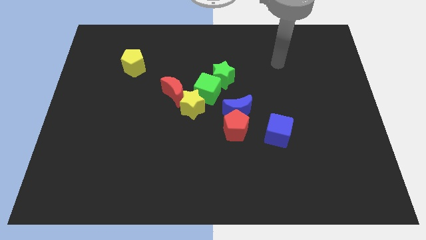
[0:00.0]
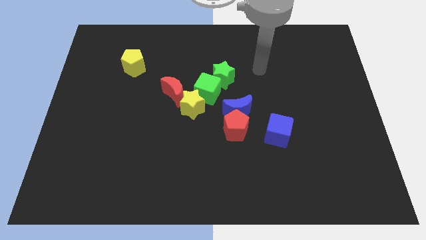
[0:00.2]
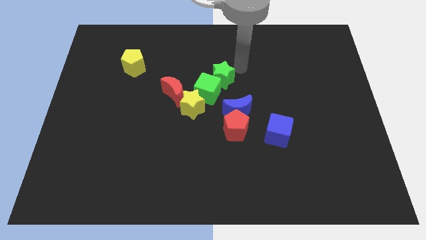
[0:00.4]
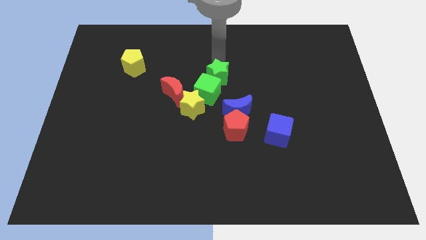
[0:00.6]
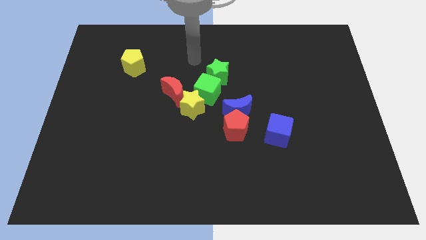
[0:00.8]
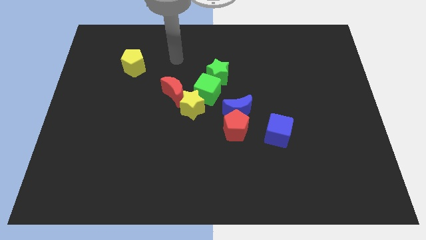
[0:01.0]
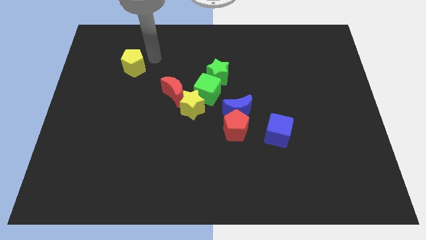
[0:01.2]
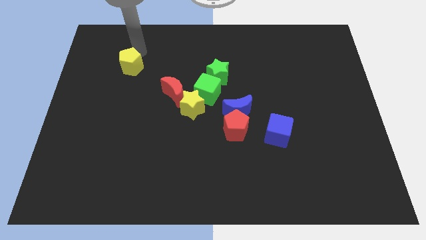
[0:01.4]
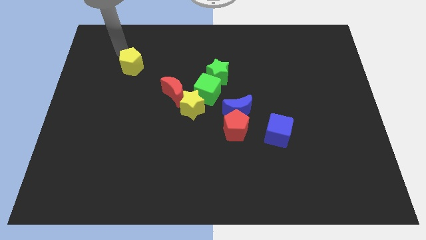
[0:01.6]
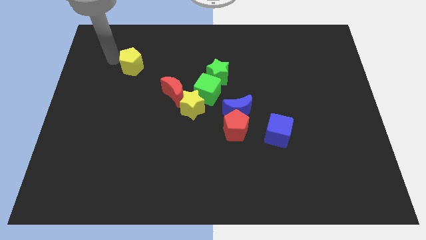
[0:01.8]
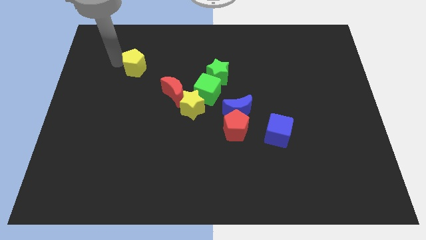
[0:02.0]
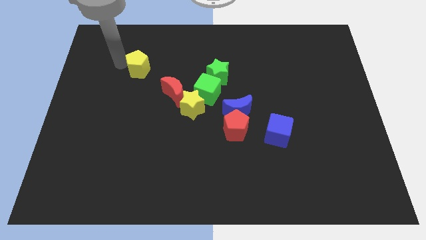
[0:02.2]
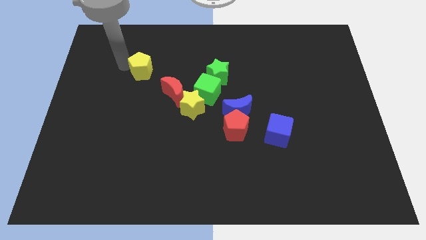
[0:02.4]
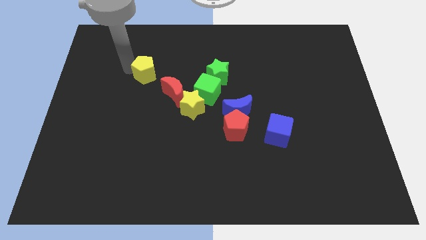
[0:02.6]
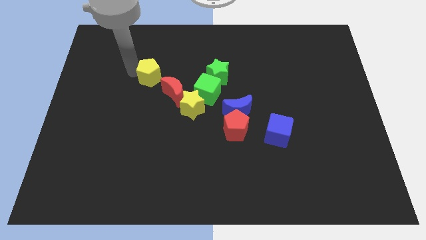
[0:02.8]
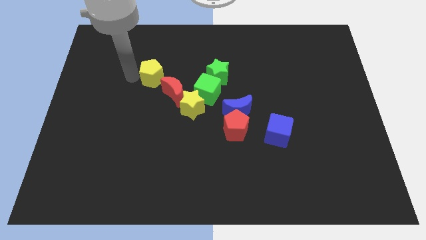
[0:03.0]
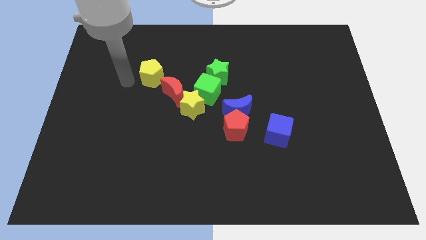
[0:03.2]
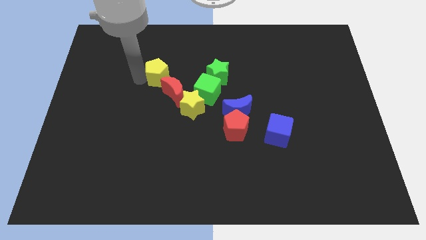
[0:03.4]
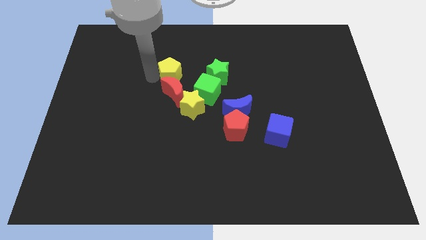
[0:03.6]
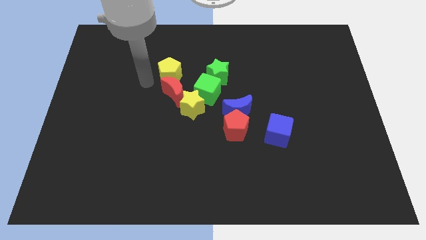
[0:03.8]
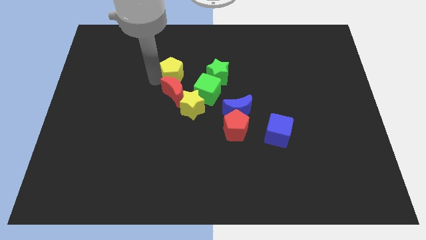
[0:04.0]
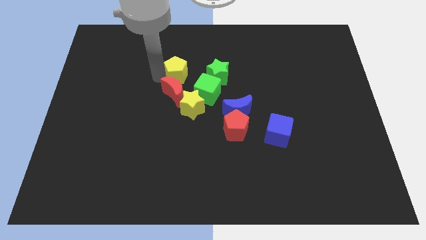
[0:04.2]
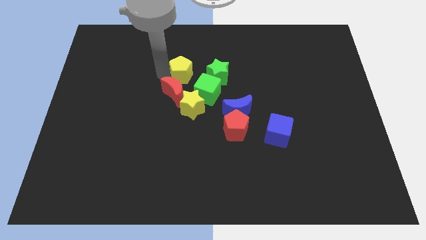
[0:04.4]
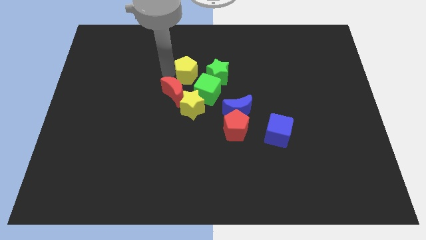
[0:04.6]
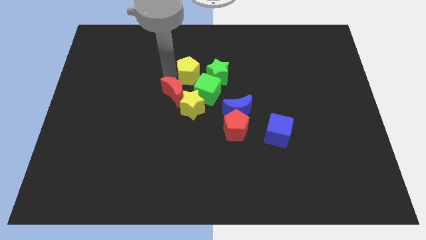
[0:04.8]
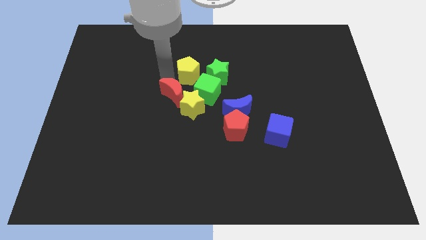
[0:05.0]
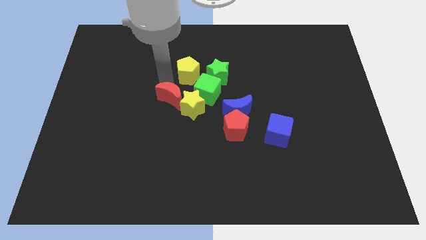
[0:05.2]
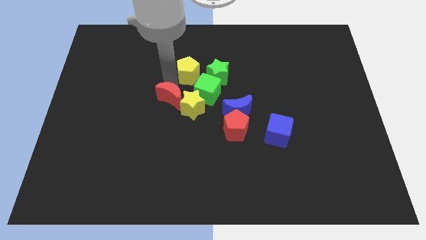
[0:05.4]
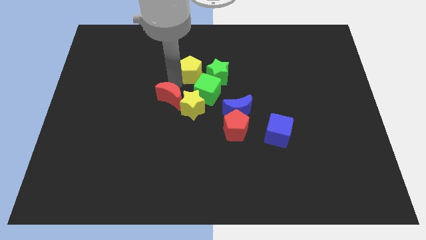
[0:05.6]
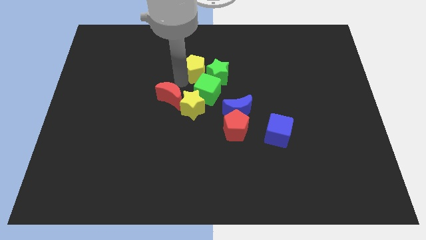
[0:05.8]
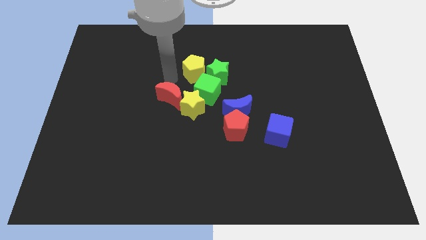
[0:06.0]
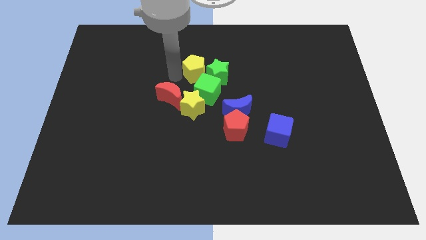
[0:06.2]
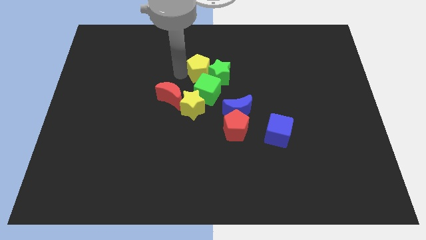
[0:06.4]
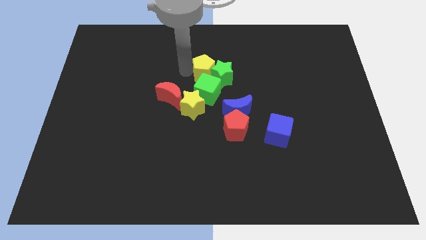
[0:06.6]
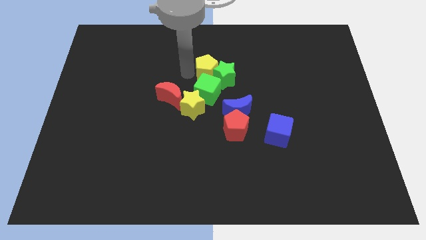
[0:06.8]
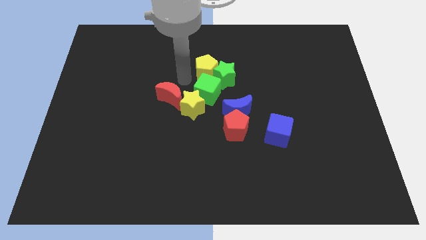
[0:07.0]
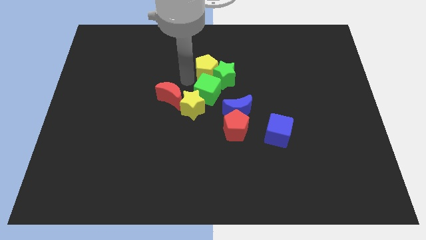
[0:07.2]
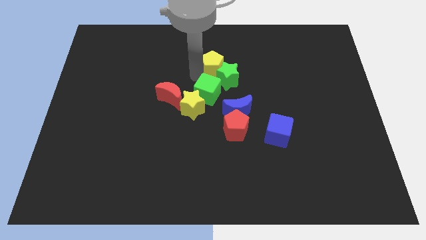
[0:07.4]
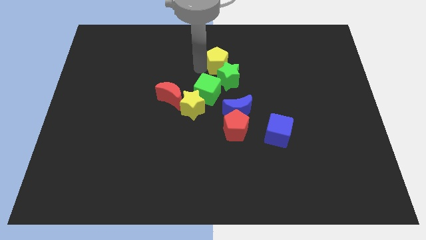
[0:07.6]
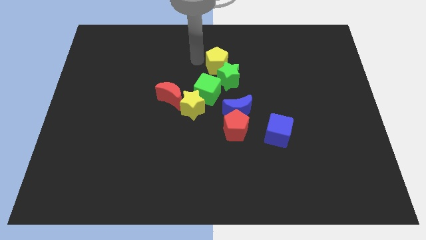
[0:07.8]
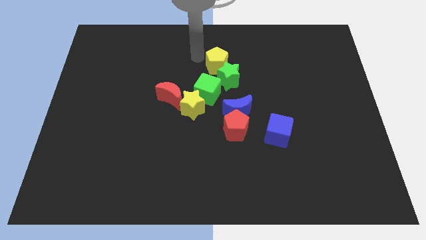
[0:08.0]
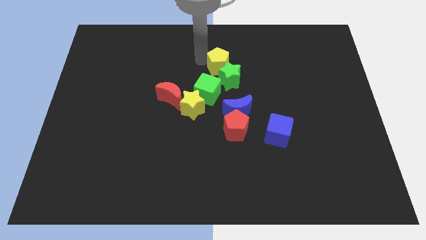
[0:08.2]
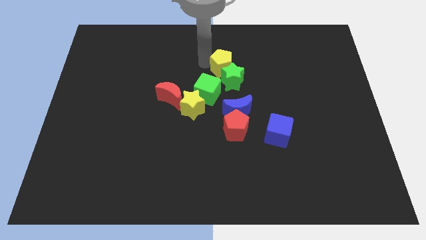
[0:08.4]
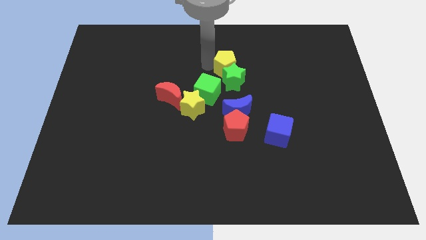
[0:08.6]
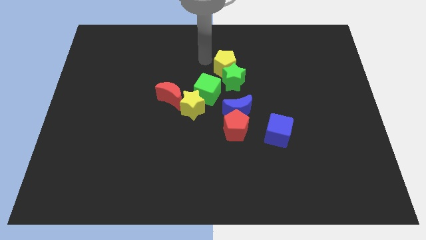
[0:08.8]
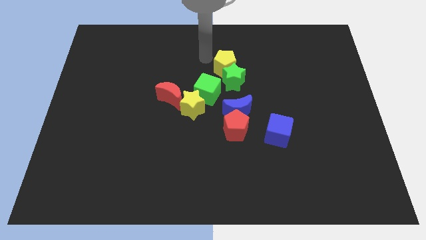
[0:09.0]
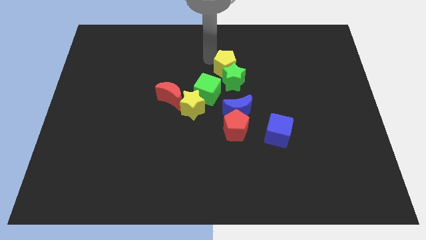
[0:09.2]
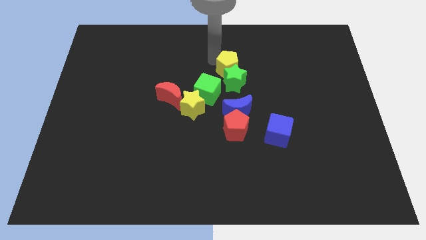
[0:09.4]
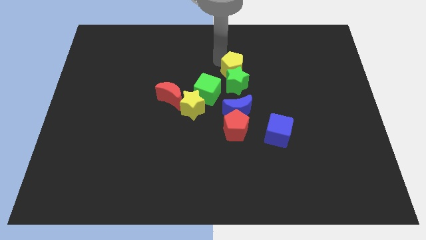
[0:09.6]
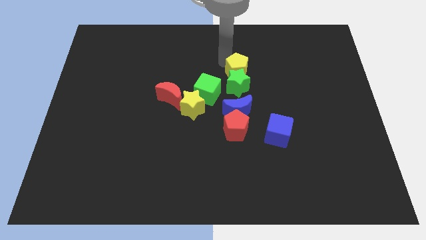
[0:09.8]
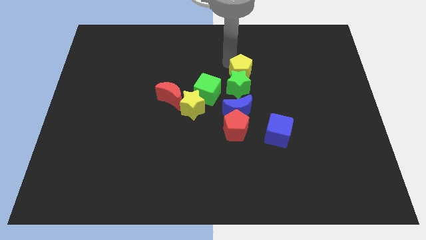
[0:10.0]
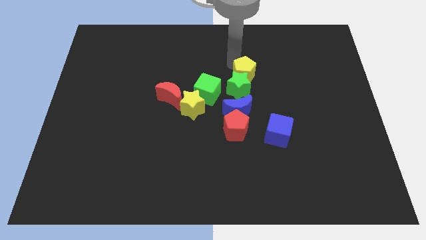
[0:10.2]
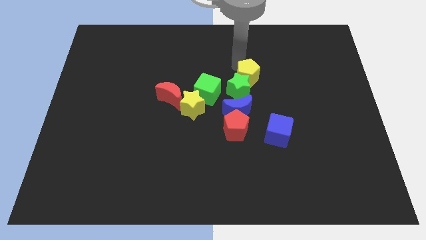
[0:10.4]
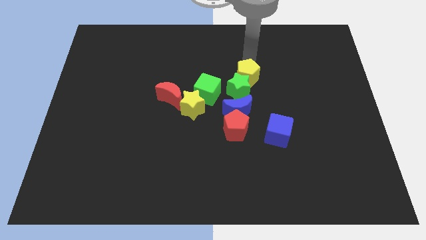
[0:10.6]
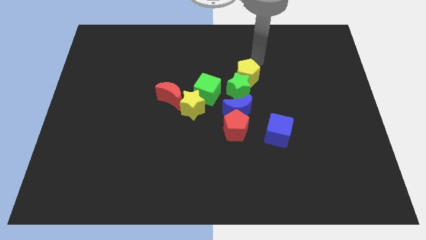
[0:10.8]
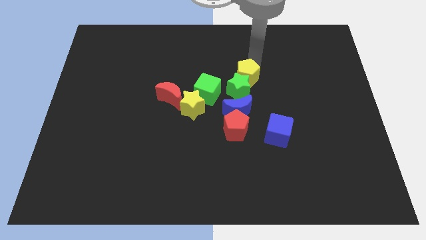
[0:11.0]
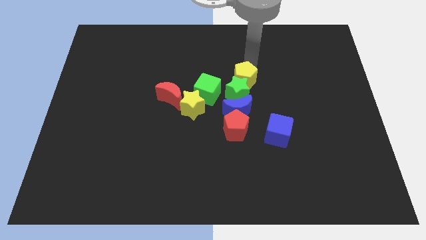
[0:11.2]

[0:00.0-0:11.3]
move the yellow pentagon to the top side of the red pentagon

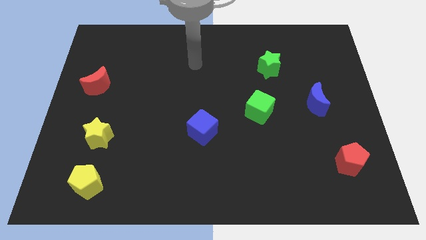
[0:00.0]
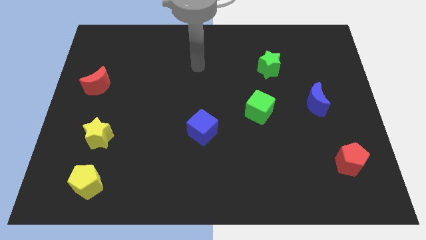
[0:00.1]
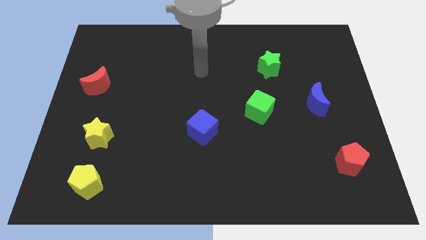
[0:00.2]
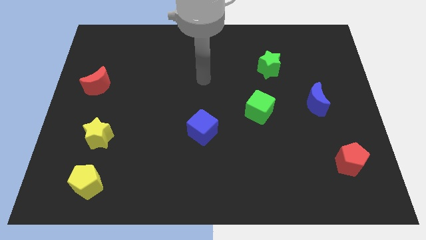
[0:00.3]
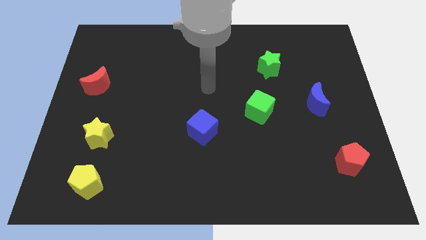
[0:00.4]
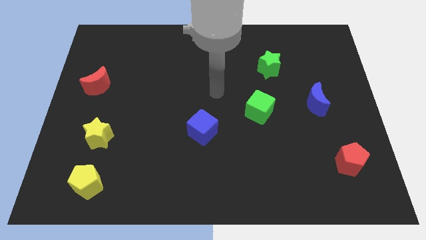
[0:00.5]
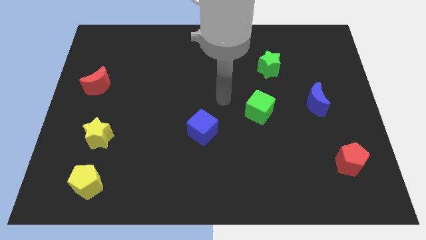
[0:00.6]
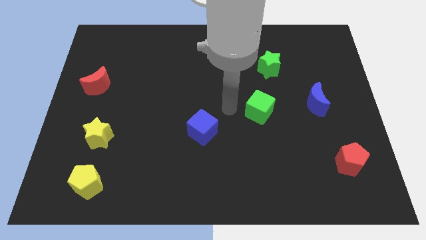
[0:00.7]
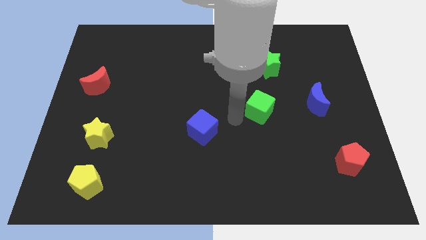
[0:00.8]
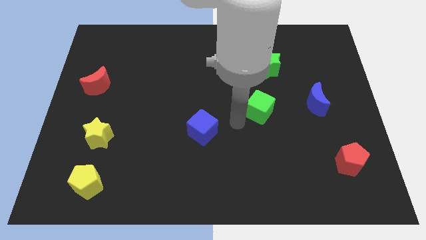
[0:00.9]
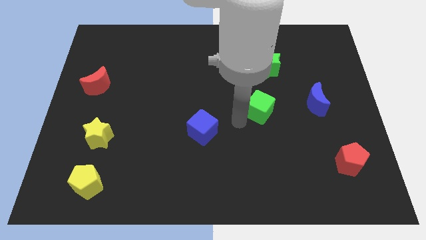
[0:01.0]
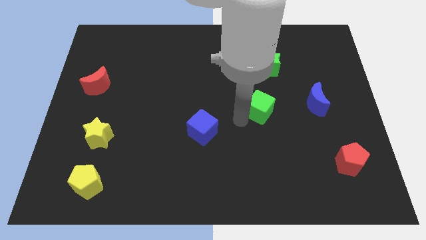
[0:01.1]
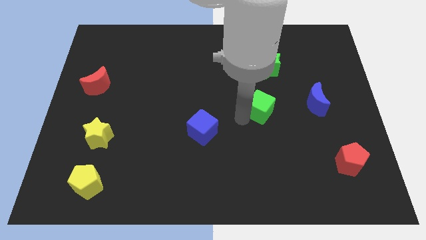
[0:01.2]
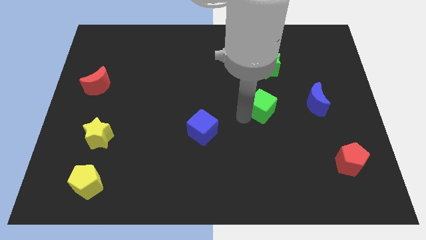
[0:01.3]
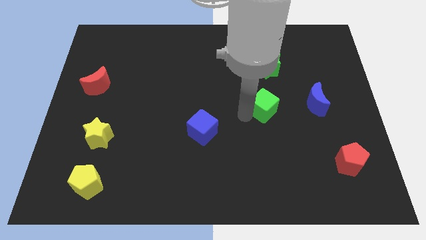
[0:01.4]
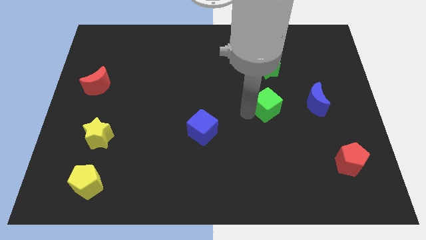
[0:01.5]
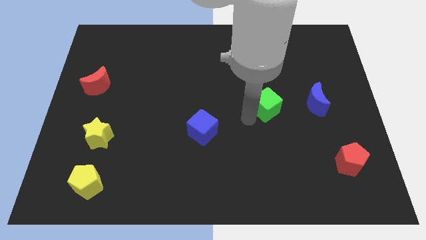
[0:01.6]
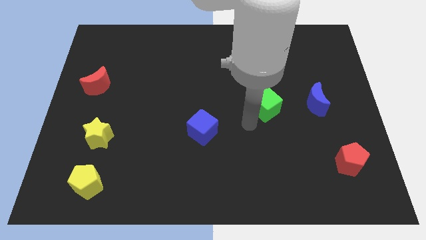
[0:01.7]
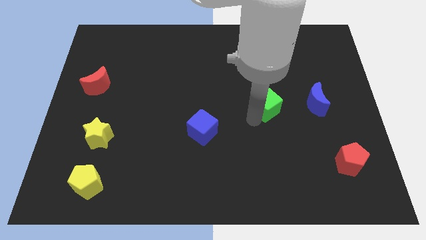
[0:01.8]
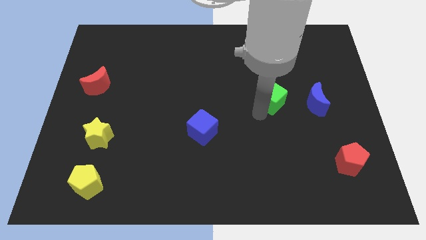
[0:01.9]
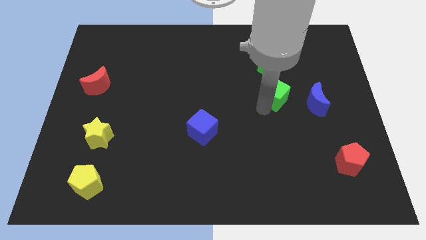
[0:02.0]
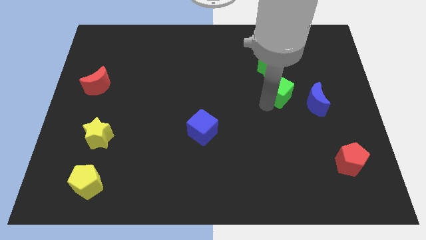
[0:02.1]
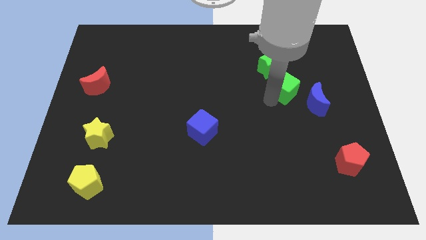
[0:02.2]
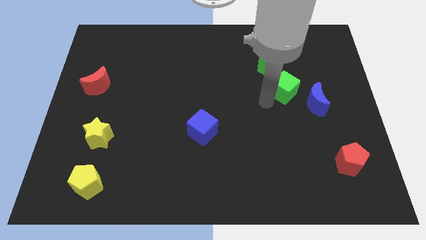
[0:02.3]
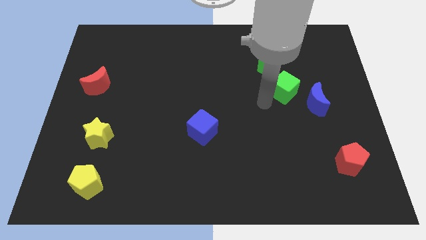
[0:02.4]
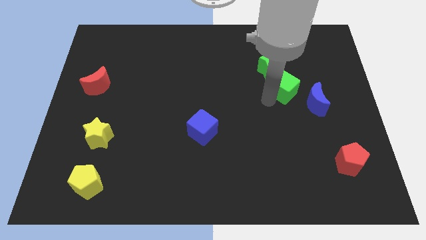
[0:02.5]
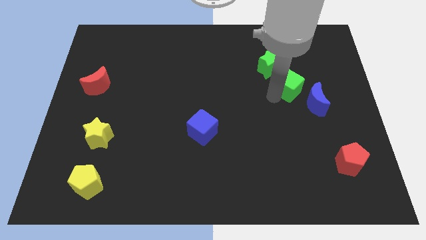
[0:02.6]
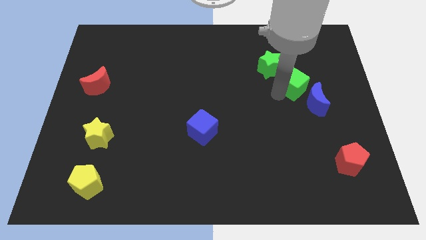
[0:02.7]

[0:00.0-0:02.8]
push the green cube above the blue moon
